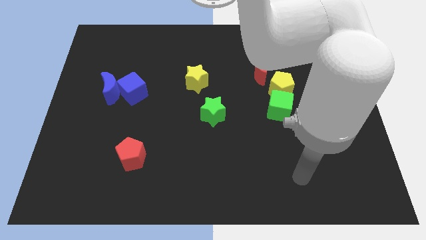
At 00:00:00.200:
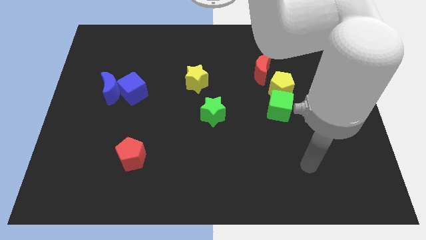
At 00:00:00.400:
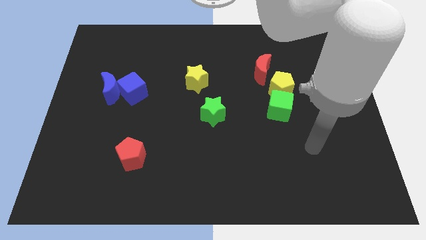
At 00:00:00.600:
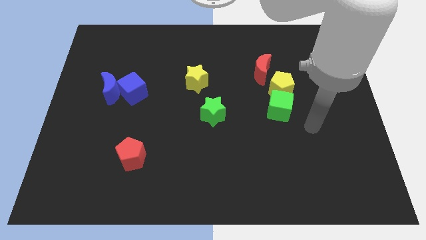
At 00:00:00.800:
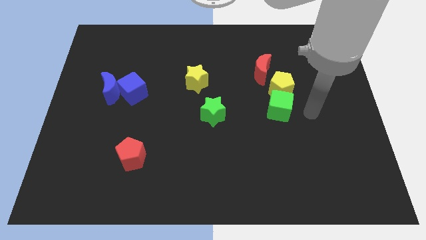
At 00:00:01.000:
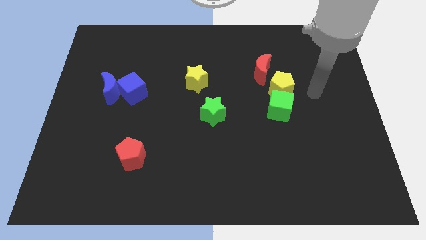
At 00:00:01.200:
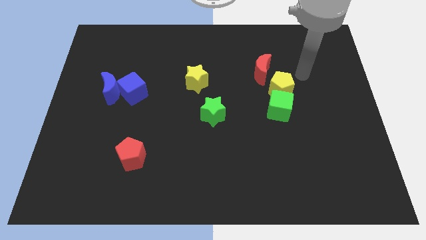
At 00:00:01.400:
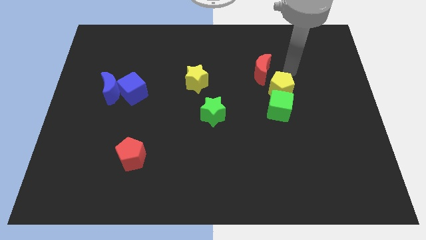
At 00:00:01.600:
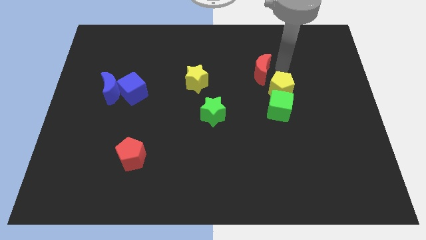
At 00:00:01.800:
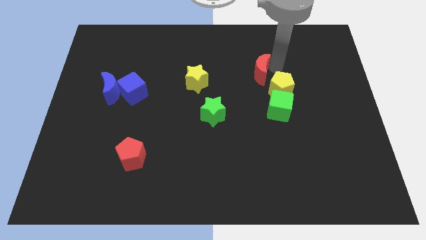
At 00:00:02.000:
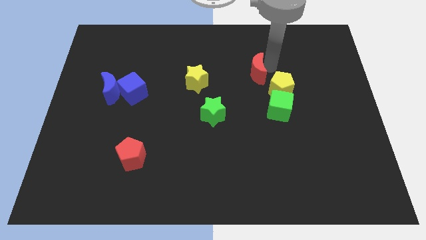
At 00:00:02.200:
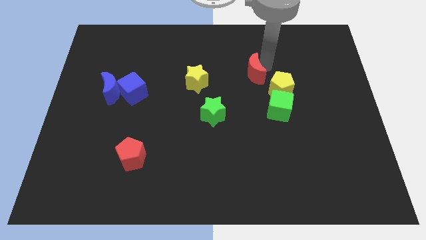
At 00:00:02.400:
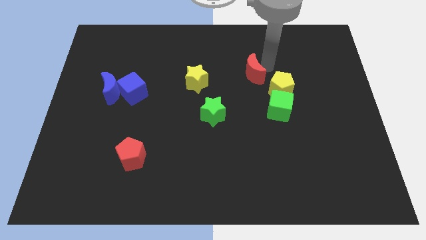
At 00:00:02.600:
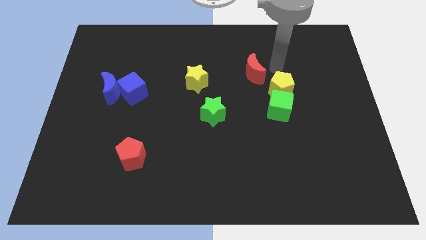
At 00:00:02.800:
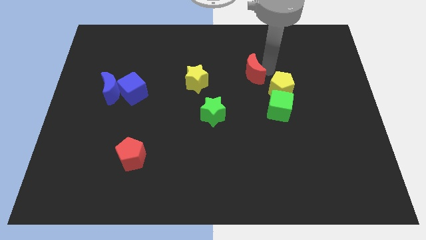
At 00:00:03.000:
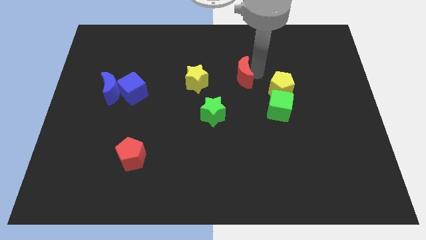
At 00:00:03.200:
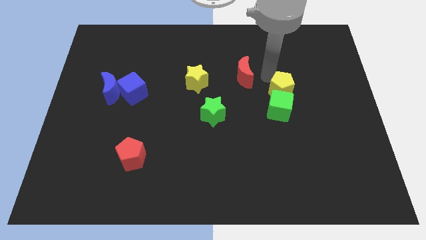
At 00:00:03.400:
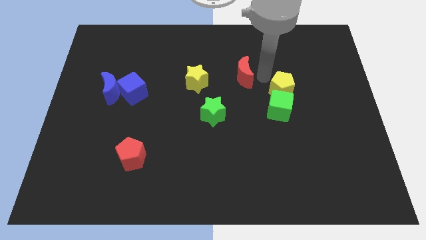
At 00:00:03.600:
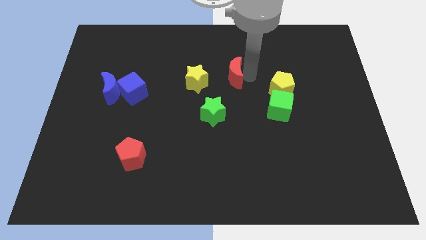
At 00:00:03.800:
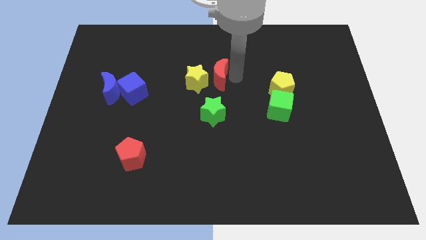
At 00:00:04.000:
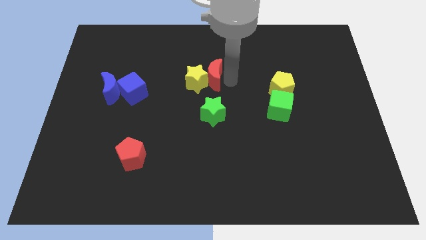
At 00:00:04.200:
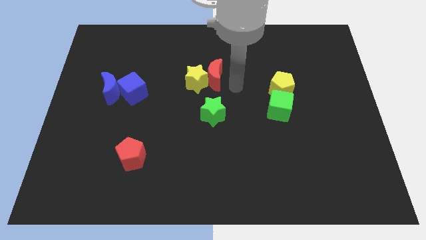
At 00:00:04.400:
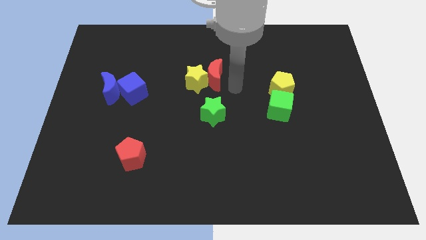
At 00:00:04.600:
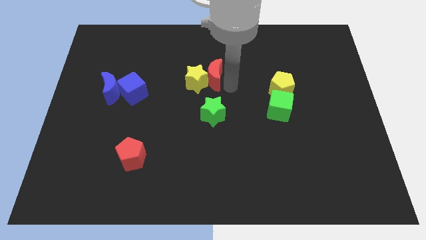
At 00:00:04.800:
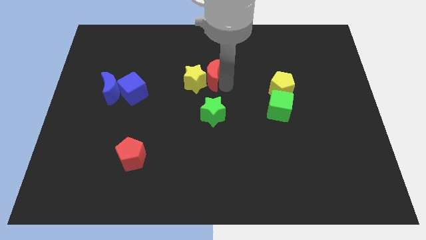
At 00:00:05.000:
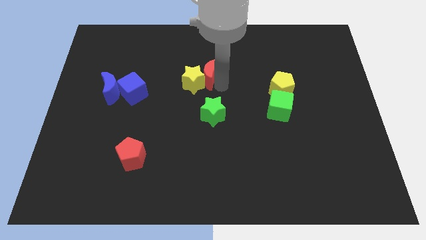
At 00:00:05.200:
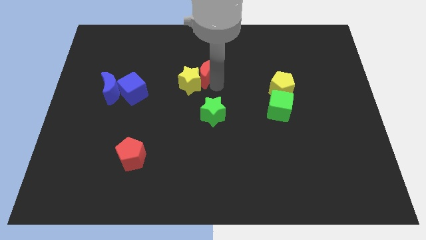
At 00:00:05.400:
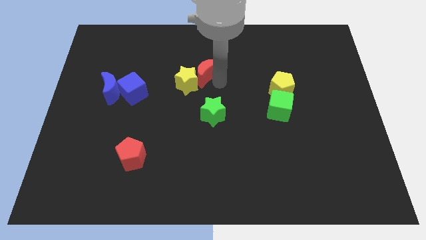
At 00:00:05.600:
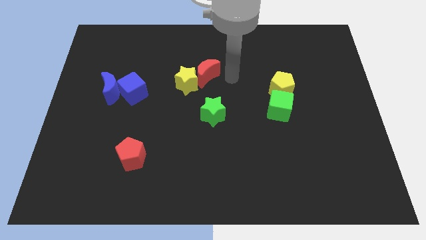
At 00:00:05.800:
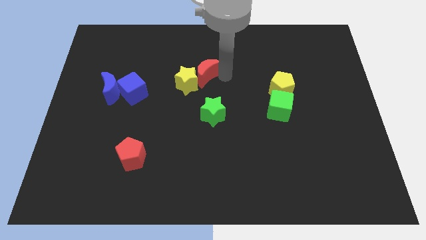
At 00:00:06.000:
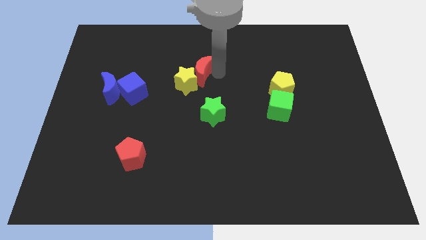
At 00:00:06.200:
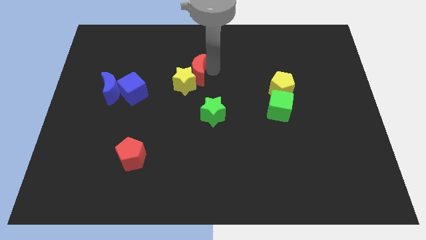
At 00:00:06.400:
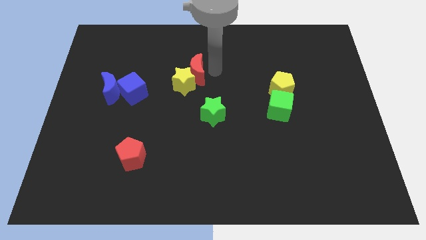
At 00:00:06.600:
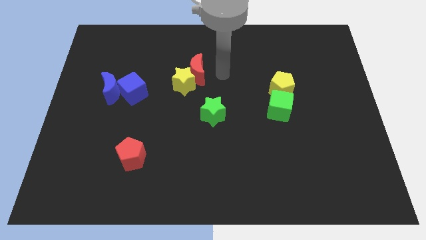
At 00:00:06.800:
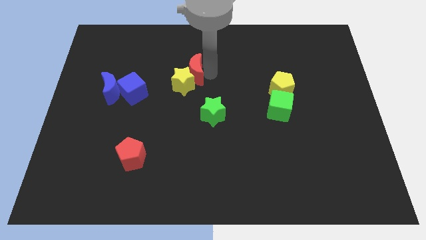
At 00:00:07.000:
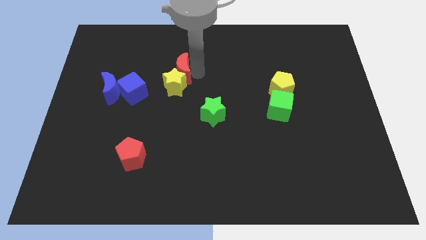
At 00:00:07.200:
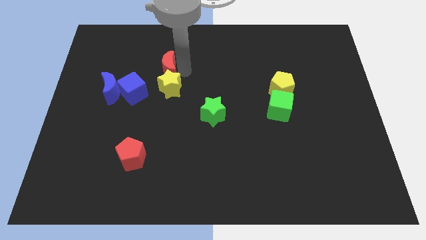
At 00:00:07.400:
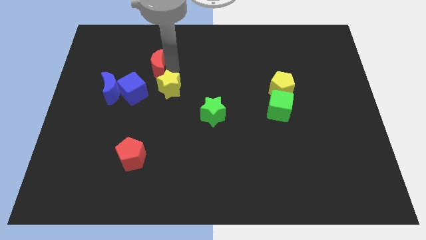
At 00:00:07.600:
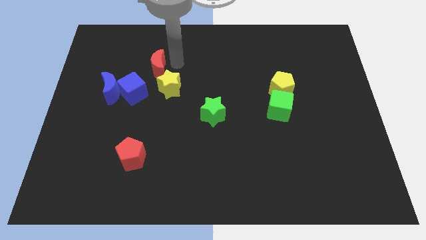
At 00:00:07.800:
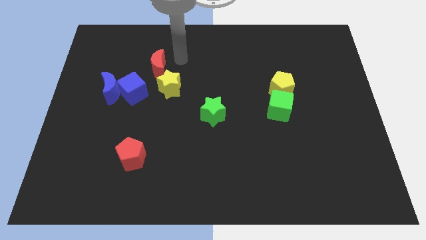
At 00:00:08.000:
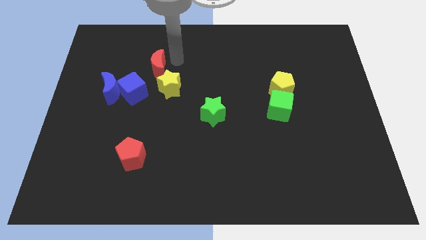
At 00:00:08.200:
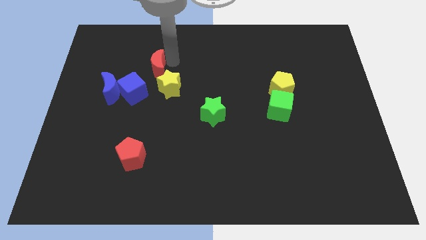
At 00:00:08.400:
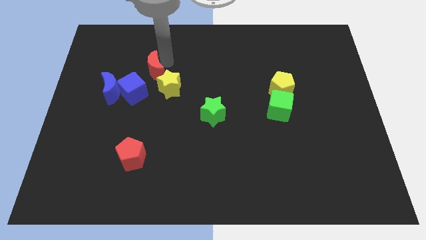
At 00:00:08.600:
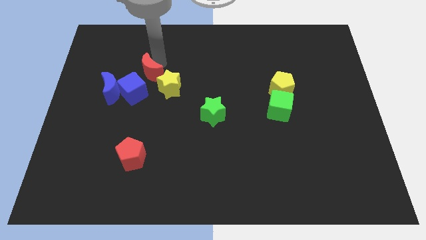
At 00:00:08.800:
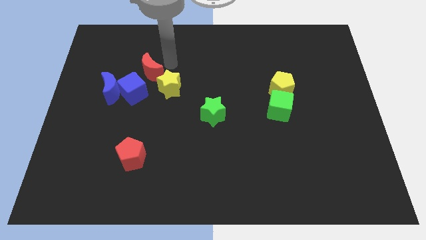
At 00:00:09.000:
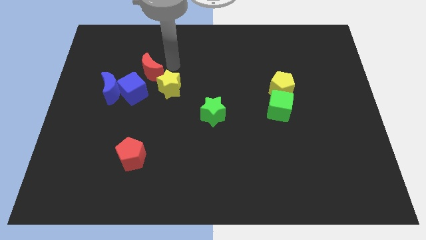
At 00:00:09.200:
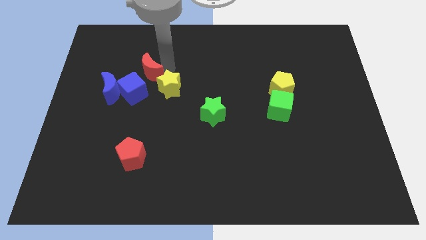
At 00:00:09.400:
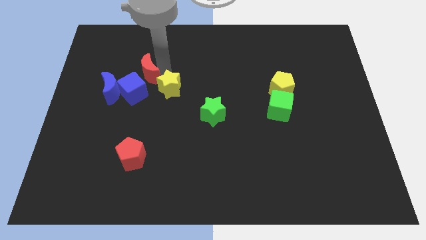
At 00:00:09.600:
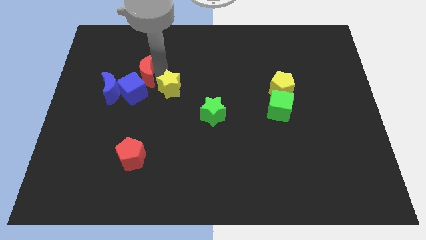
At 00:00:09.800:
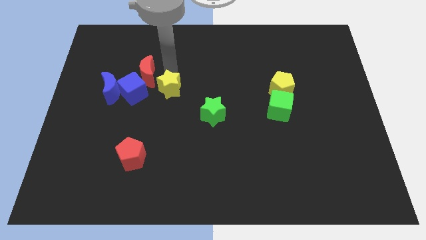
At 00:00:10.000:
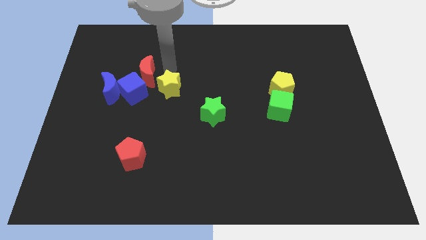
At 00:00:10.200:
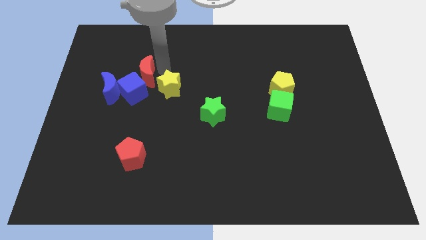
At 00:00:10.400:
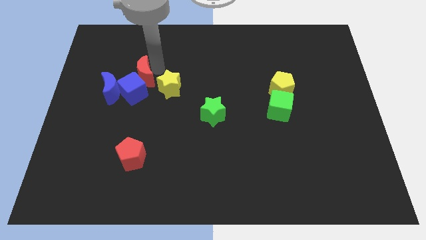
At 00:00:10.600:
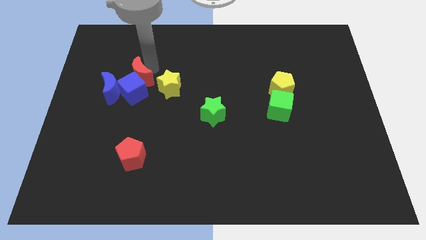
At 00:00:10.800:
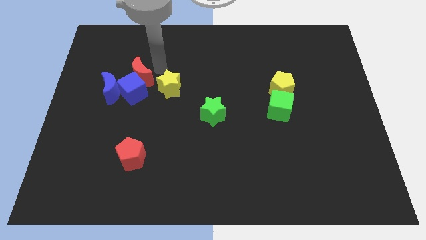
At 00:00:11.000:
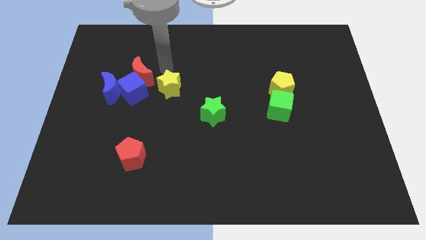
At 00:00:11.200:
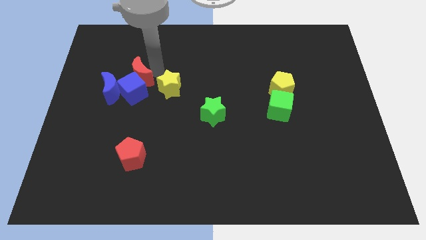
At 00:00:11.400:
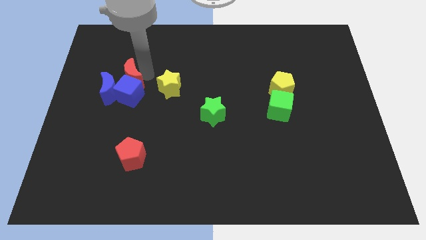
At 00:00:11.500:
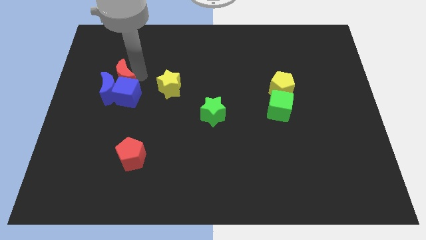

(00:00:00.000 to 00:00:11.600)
put the red moon next to the blue moon

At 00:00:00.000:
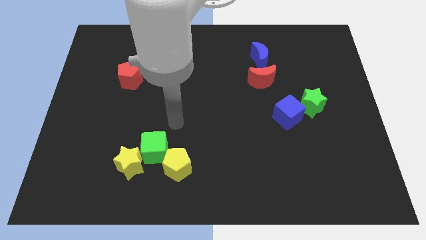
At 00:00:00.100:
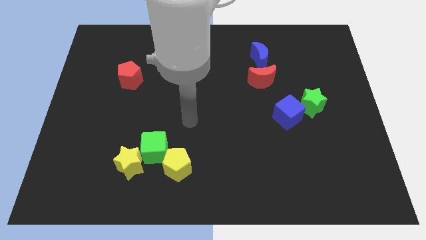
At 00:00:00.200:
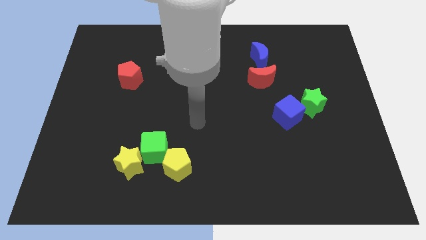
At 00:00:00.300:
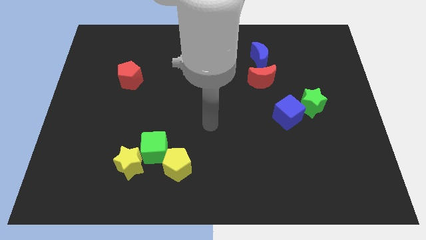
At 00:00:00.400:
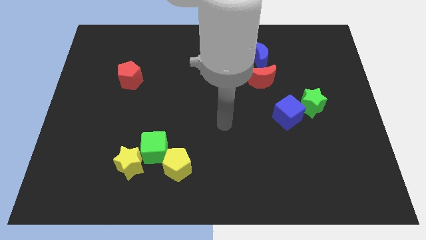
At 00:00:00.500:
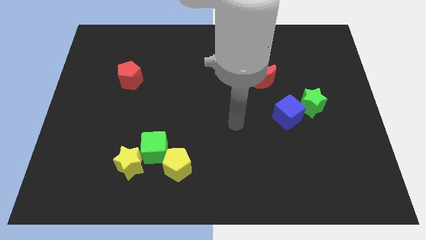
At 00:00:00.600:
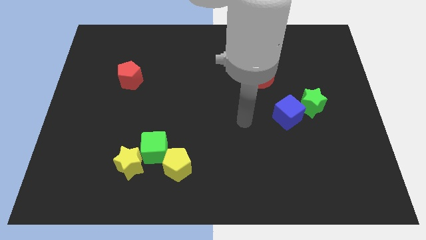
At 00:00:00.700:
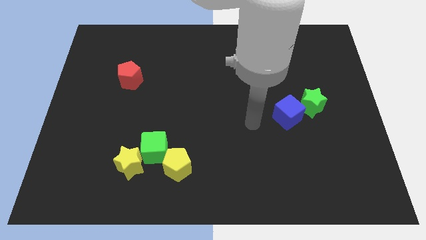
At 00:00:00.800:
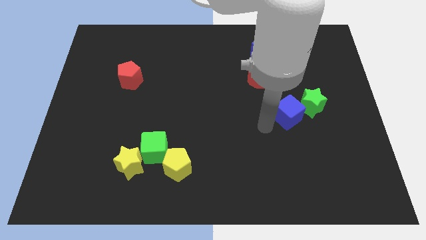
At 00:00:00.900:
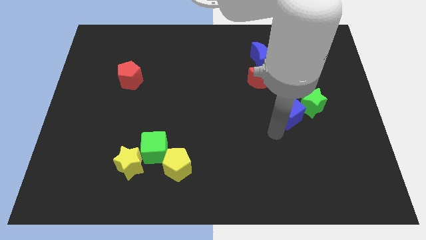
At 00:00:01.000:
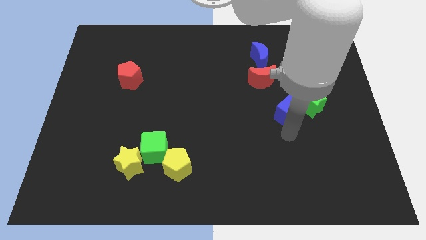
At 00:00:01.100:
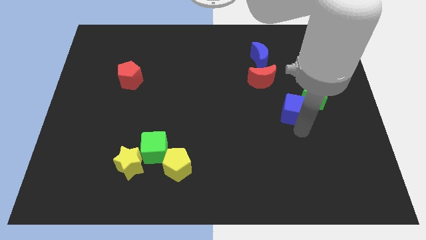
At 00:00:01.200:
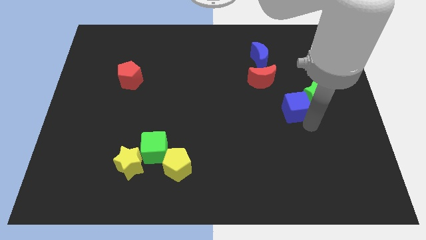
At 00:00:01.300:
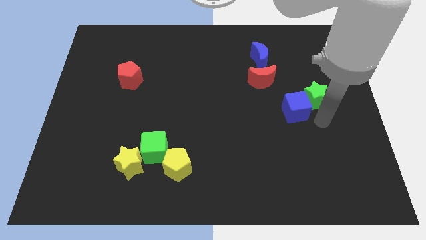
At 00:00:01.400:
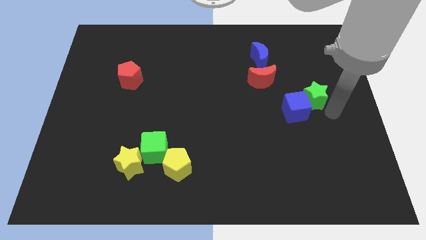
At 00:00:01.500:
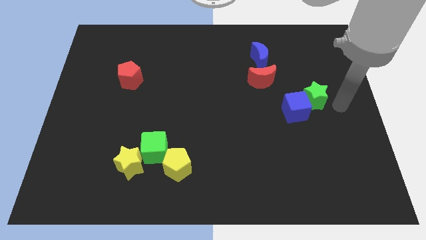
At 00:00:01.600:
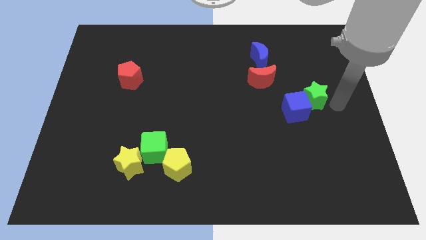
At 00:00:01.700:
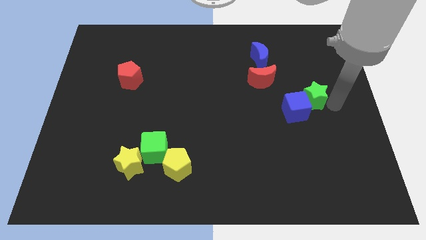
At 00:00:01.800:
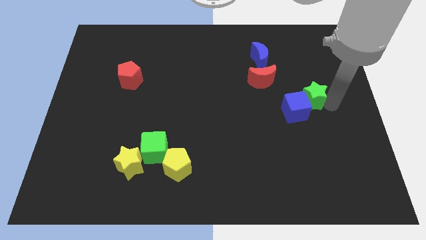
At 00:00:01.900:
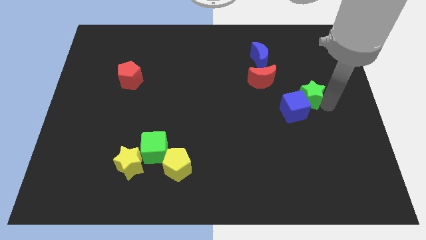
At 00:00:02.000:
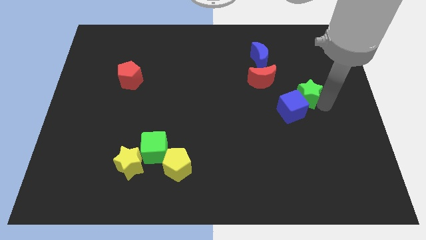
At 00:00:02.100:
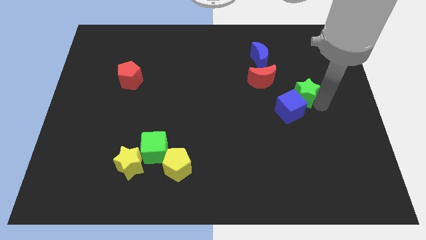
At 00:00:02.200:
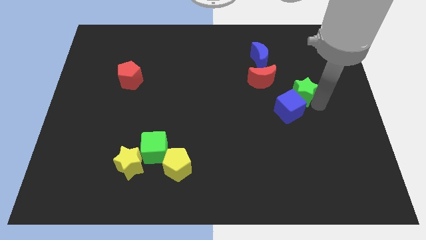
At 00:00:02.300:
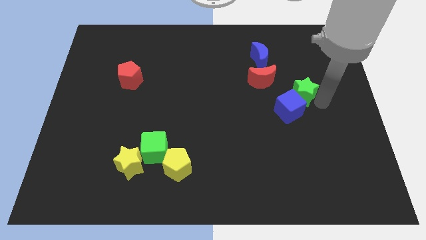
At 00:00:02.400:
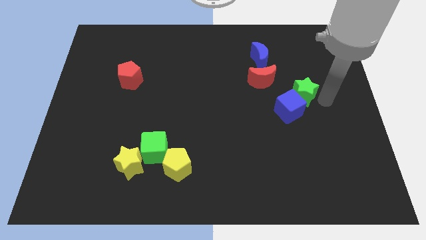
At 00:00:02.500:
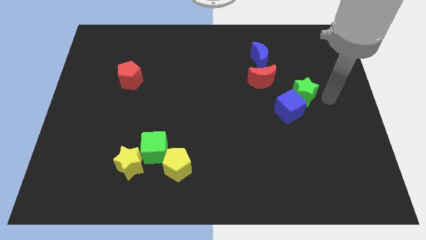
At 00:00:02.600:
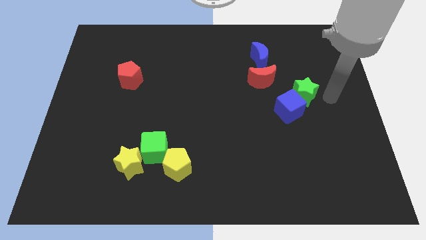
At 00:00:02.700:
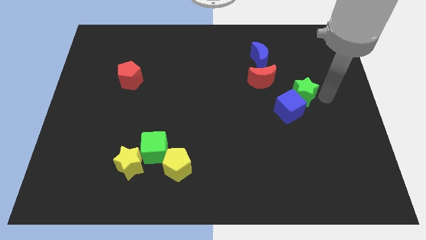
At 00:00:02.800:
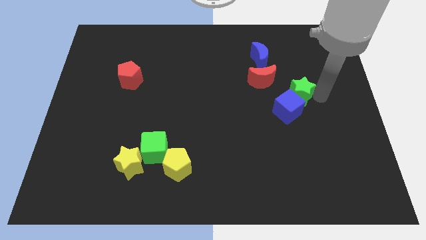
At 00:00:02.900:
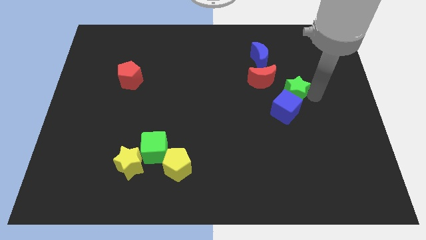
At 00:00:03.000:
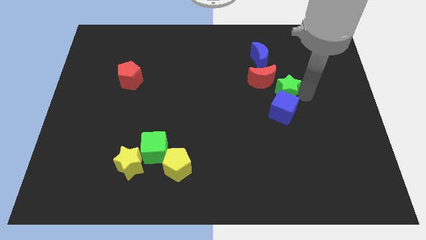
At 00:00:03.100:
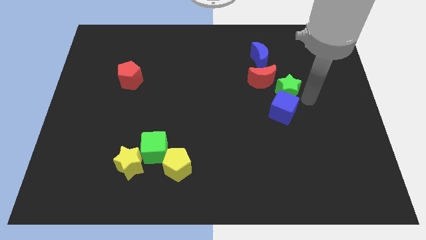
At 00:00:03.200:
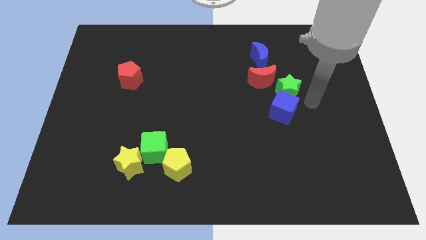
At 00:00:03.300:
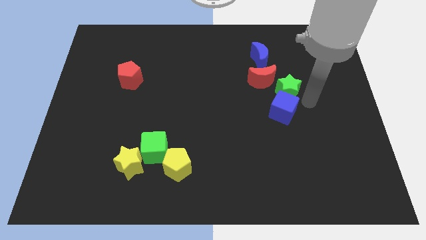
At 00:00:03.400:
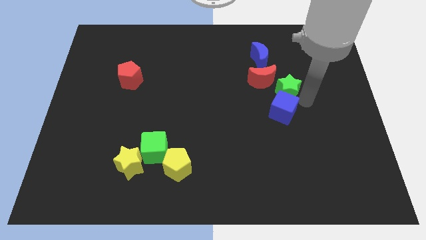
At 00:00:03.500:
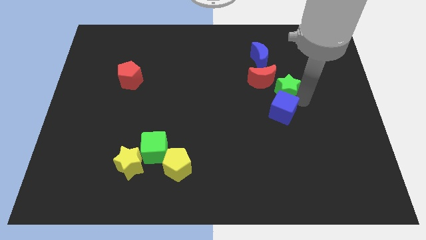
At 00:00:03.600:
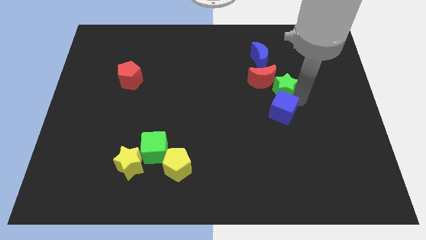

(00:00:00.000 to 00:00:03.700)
put the green star close to the red moon
